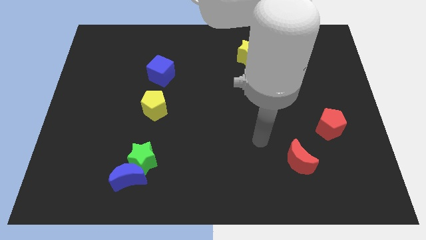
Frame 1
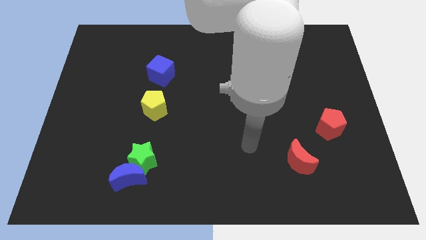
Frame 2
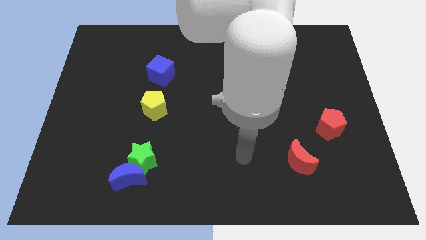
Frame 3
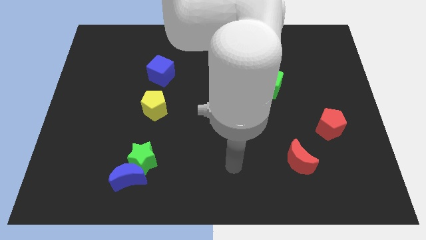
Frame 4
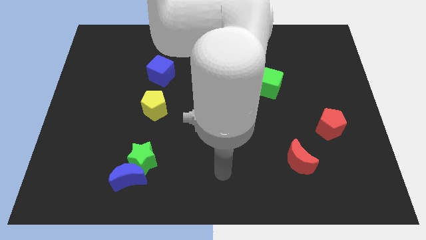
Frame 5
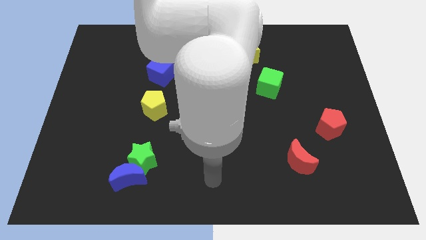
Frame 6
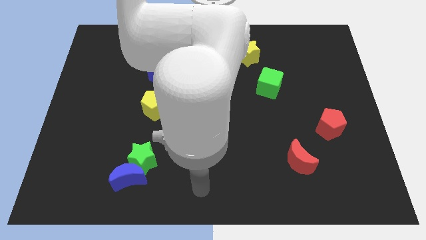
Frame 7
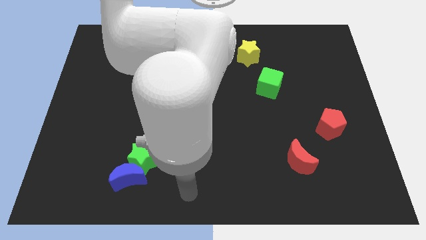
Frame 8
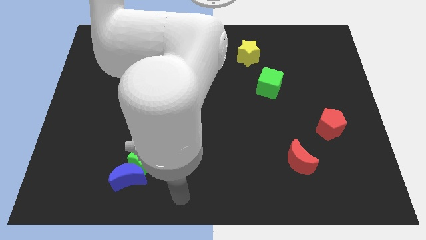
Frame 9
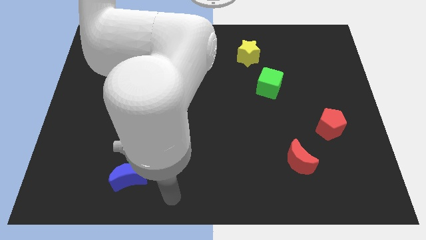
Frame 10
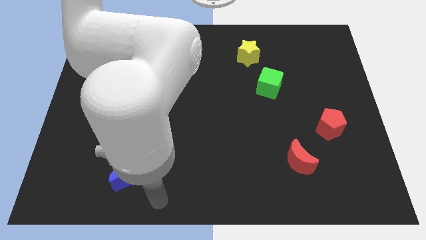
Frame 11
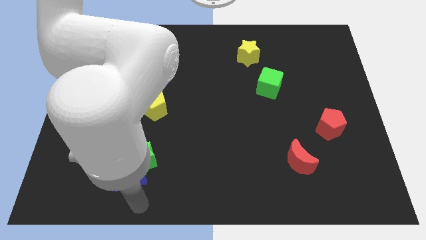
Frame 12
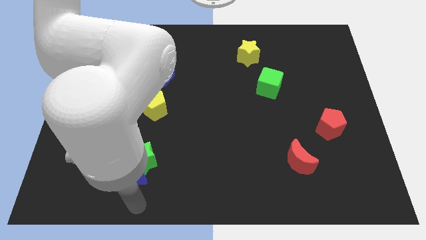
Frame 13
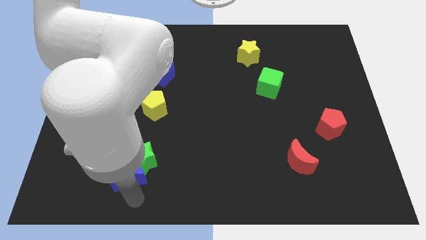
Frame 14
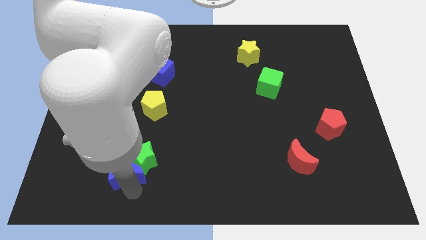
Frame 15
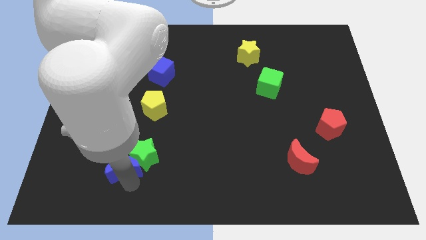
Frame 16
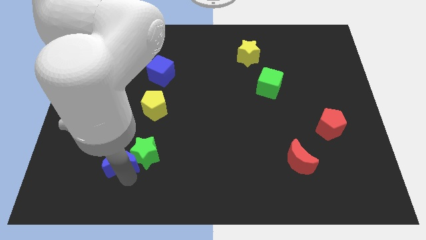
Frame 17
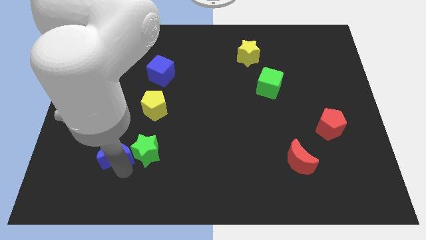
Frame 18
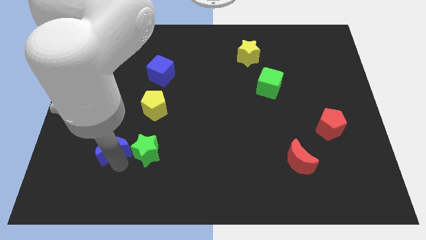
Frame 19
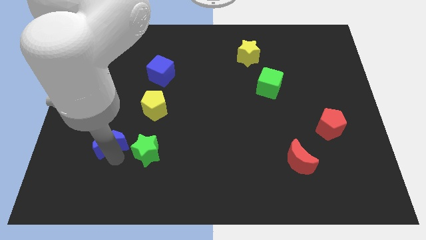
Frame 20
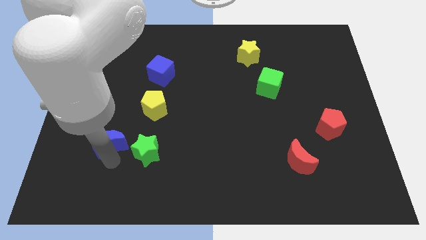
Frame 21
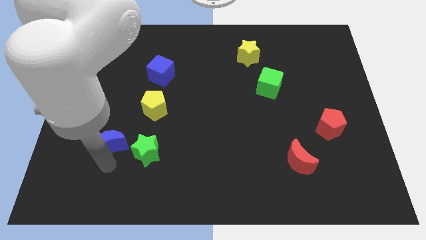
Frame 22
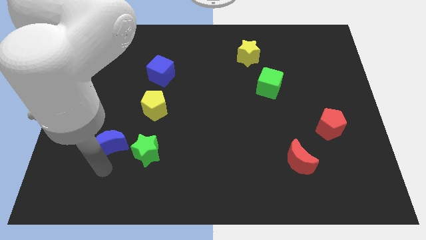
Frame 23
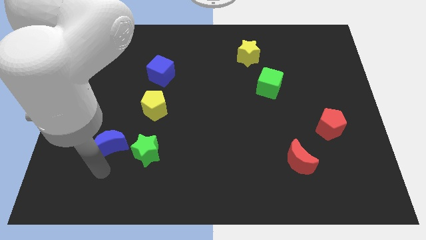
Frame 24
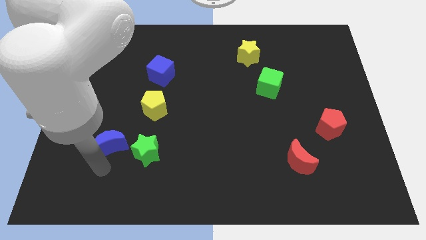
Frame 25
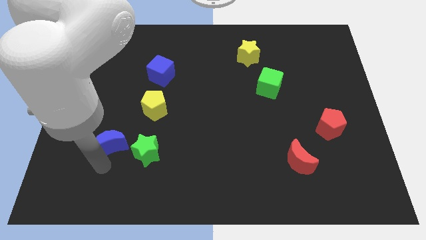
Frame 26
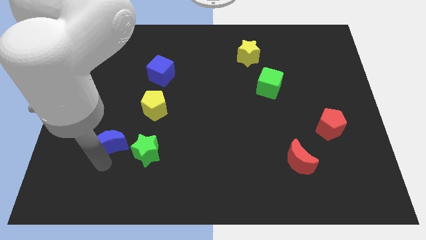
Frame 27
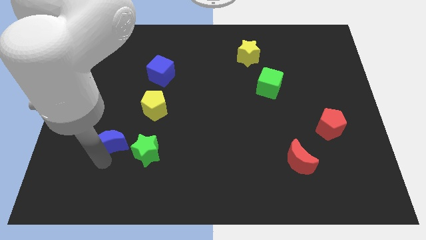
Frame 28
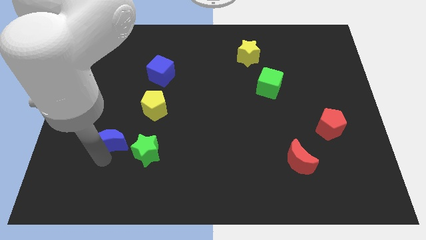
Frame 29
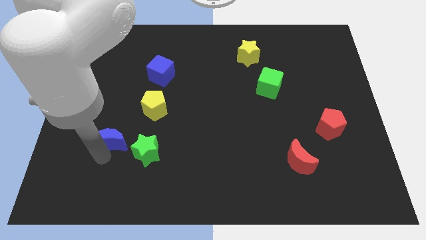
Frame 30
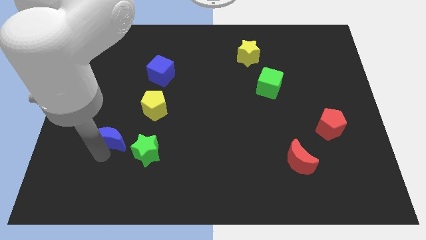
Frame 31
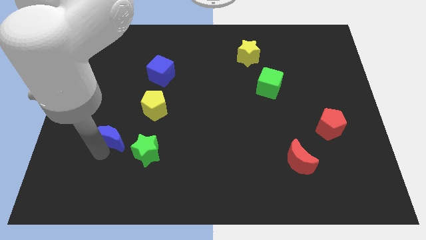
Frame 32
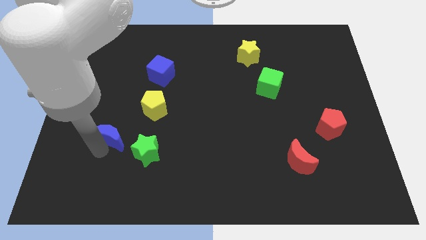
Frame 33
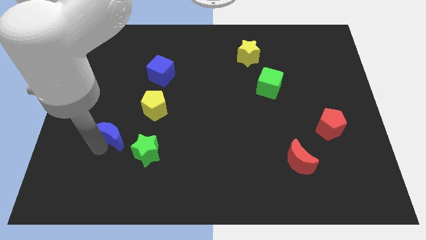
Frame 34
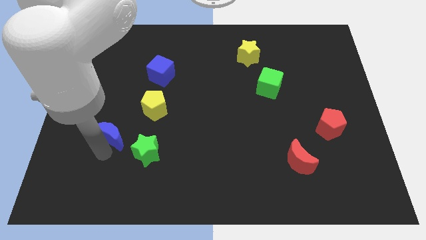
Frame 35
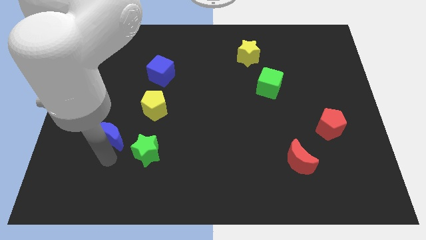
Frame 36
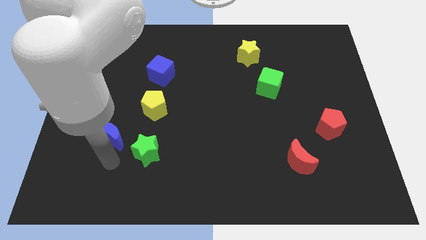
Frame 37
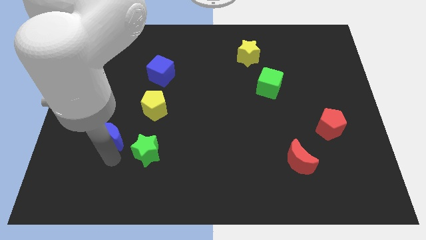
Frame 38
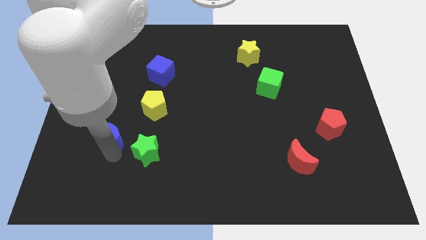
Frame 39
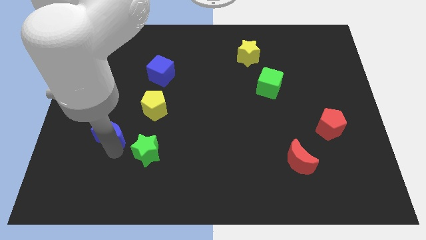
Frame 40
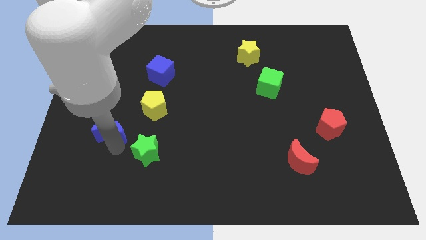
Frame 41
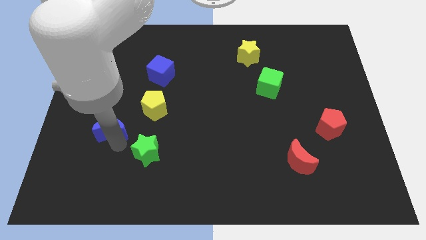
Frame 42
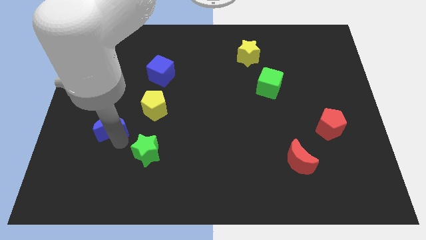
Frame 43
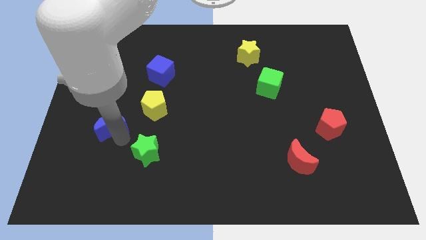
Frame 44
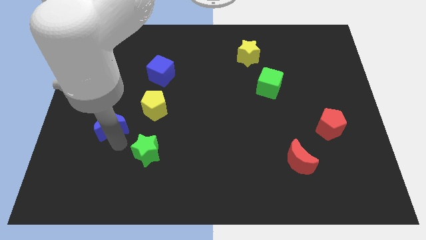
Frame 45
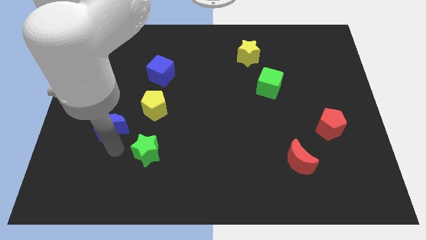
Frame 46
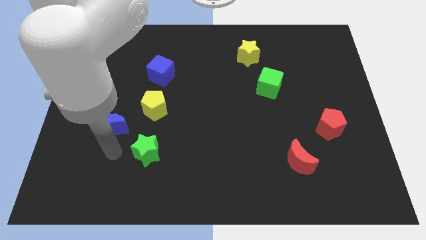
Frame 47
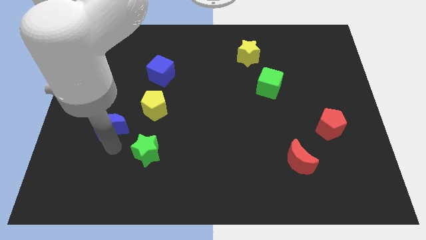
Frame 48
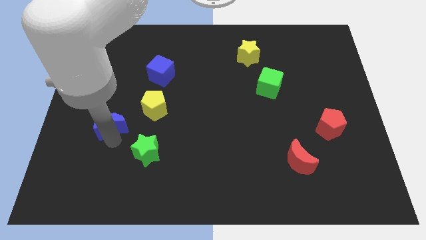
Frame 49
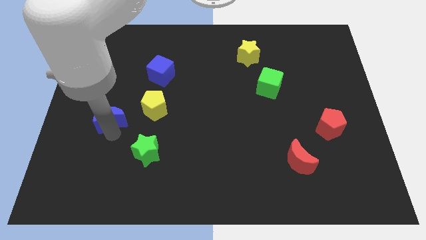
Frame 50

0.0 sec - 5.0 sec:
push the blue moon to the left side of the yellow pentagon

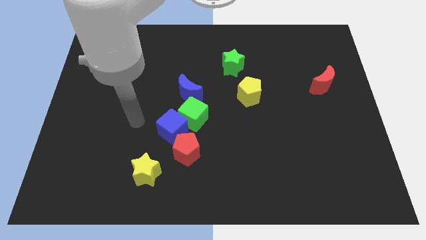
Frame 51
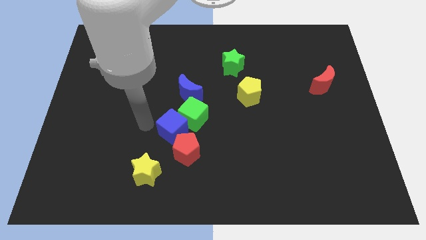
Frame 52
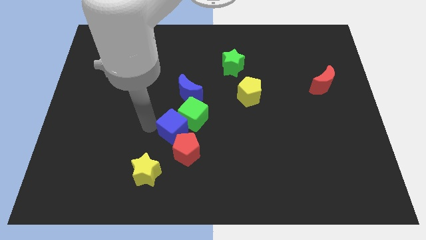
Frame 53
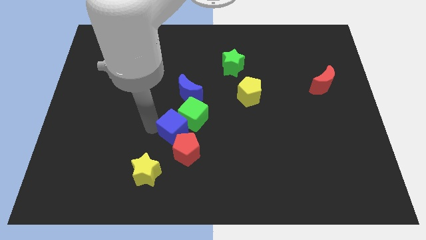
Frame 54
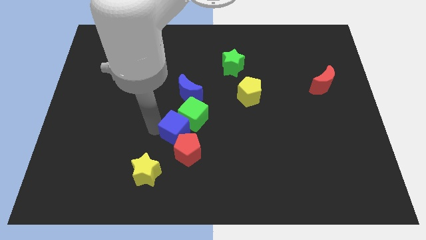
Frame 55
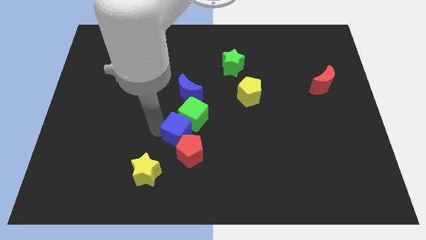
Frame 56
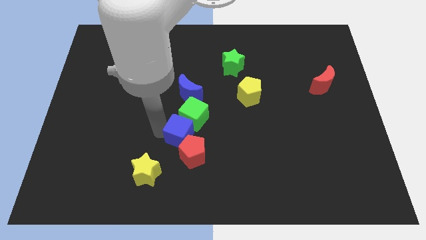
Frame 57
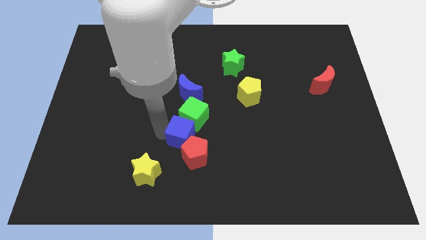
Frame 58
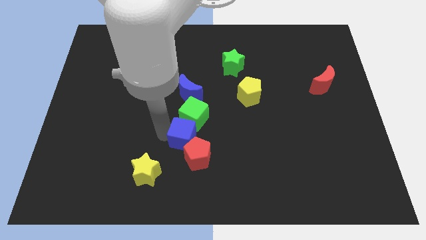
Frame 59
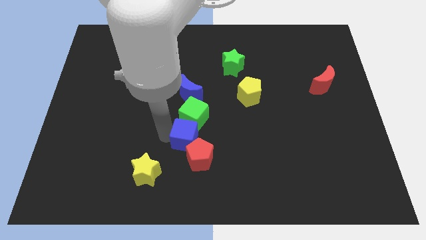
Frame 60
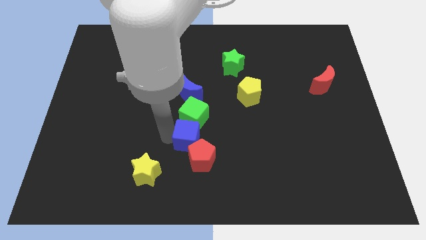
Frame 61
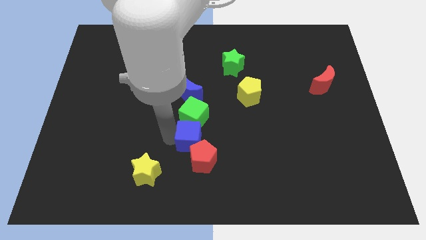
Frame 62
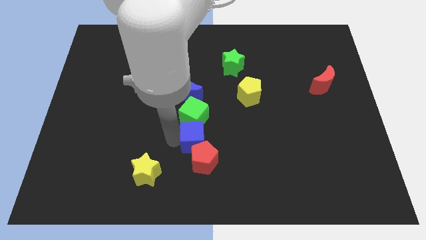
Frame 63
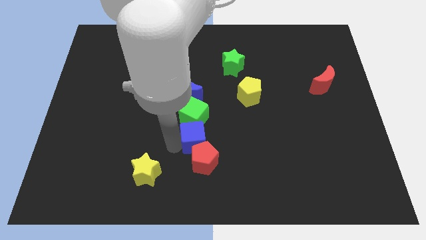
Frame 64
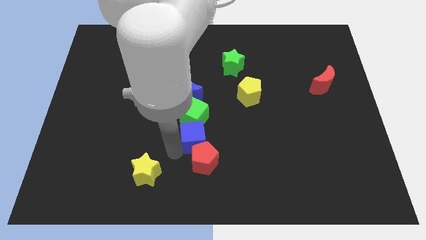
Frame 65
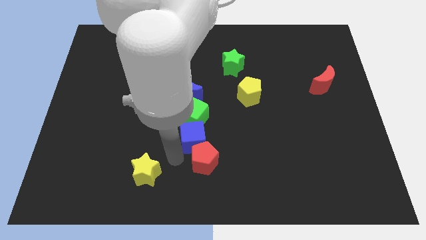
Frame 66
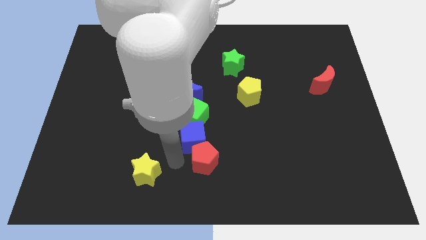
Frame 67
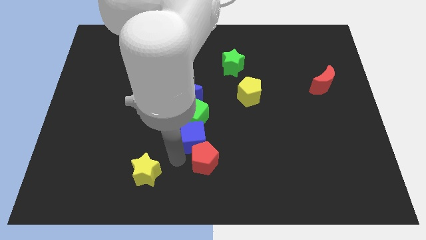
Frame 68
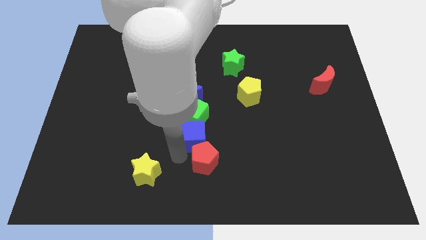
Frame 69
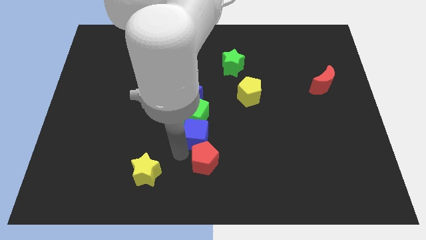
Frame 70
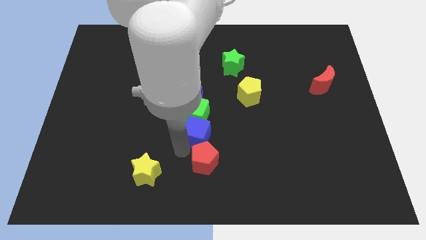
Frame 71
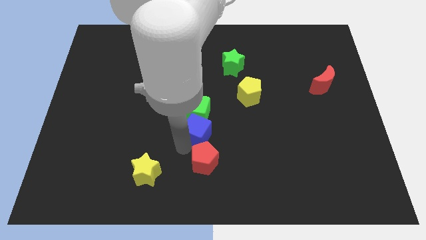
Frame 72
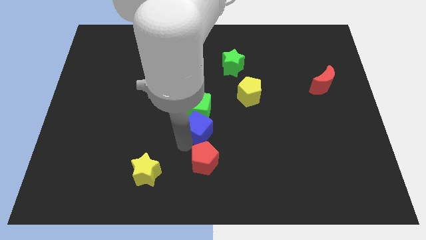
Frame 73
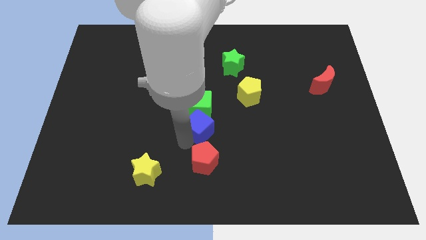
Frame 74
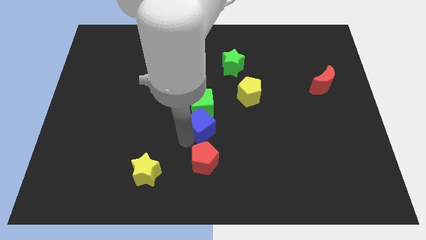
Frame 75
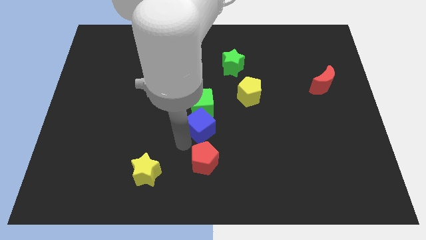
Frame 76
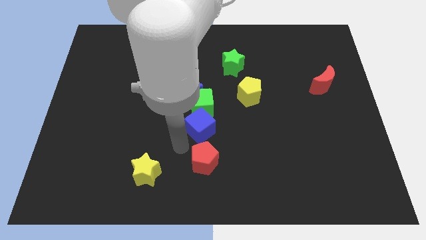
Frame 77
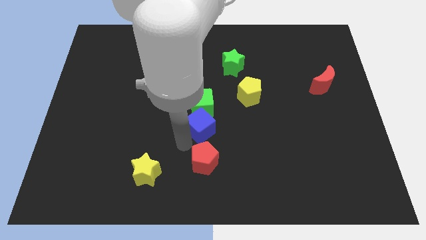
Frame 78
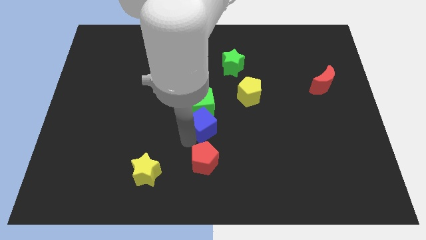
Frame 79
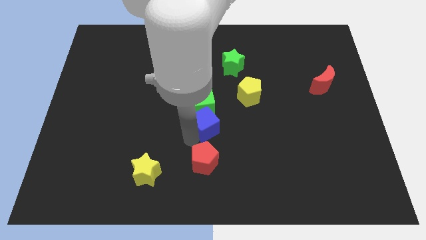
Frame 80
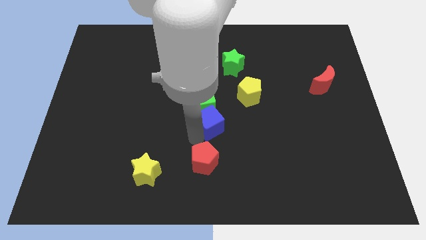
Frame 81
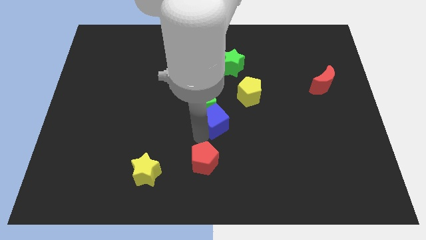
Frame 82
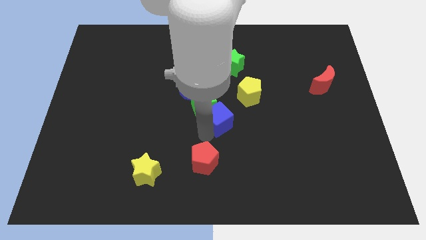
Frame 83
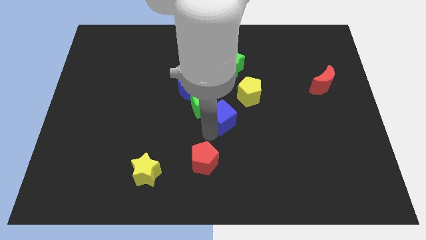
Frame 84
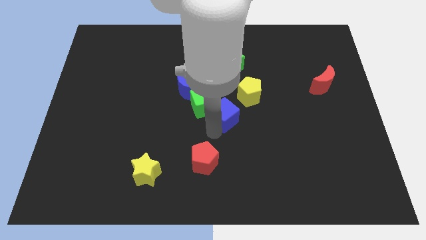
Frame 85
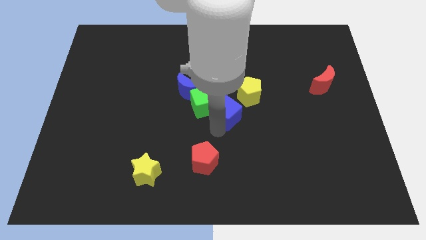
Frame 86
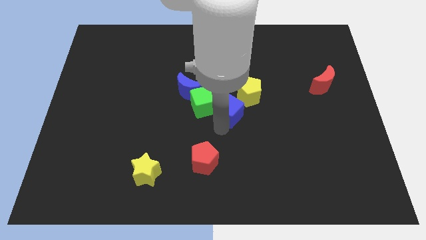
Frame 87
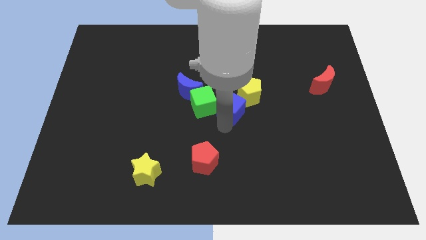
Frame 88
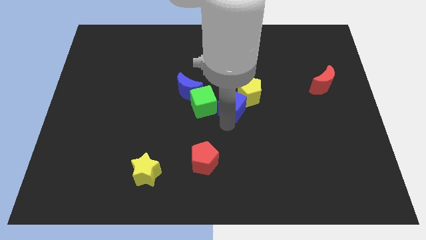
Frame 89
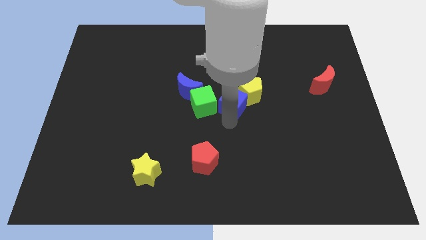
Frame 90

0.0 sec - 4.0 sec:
put the blue cube to the top right side of the green cube
